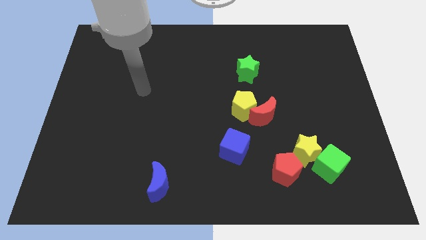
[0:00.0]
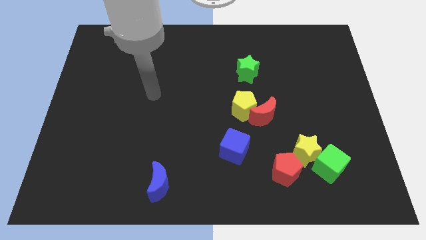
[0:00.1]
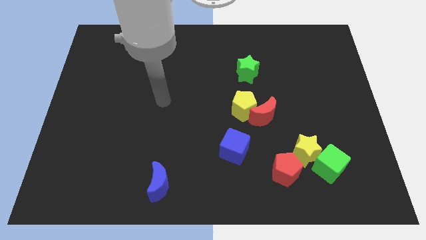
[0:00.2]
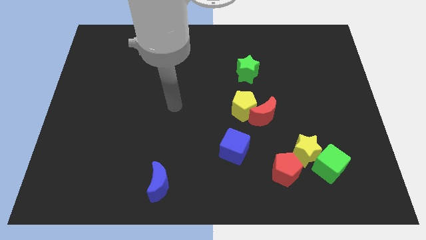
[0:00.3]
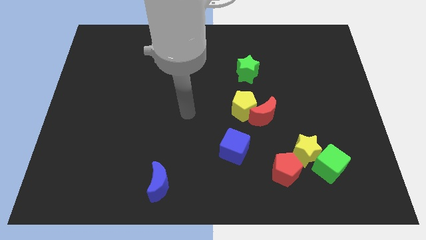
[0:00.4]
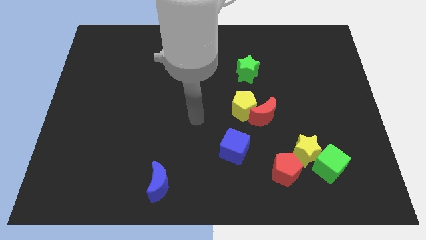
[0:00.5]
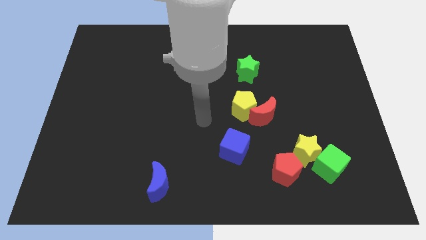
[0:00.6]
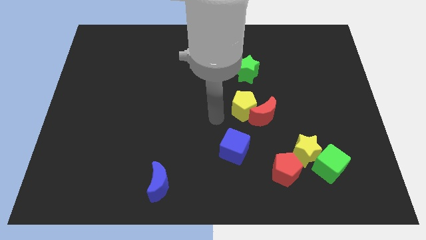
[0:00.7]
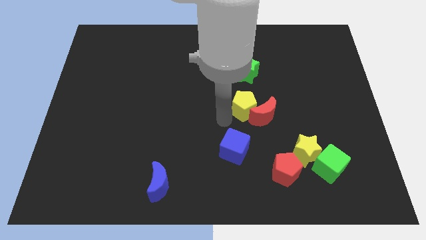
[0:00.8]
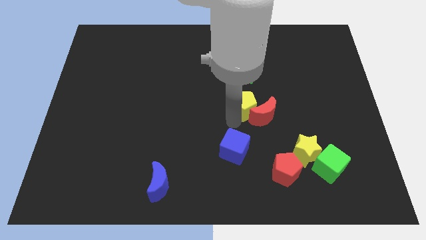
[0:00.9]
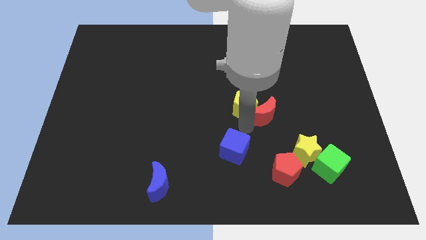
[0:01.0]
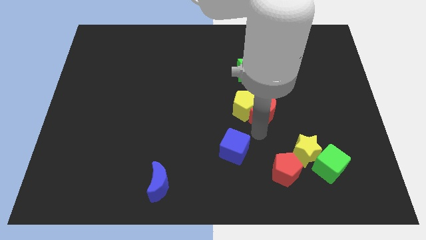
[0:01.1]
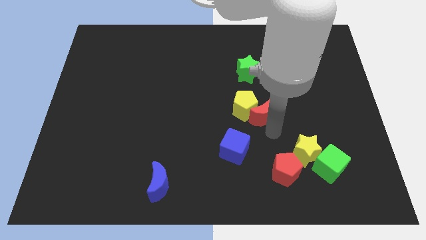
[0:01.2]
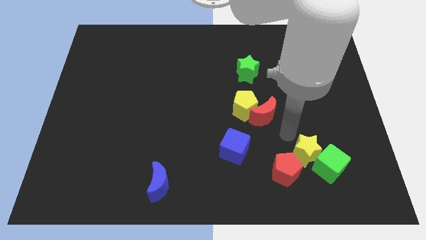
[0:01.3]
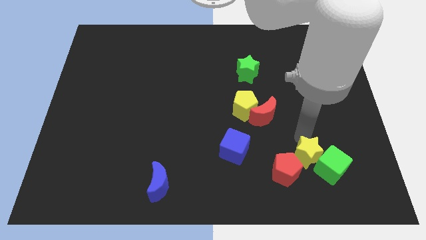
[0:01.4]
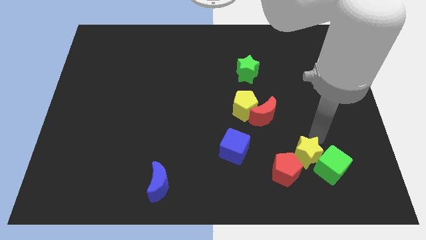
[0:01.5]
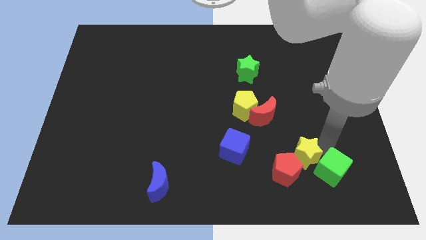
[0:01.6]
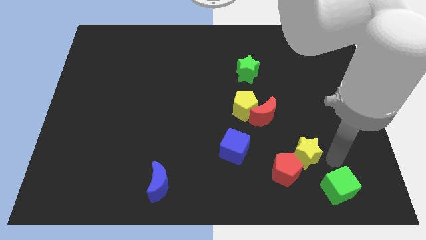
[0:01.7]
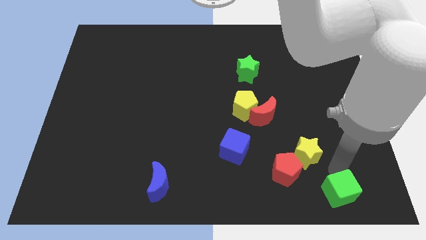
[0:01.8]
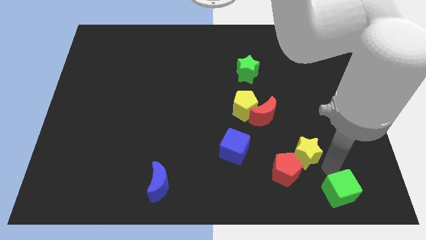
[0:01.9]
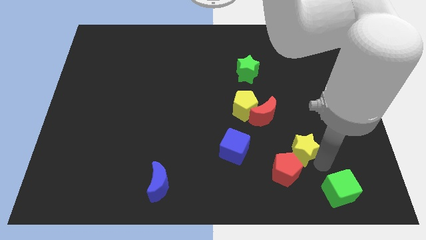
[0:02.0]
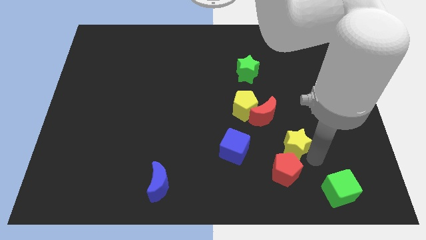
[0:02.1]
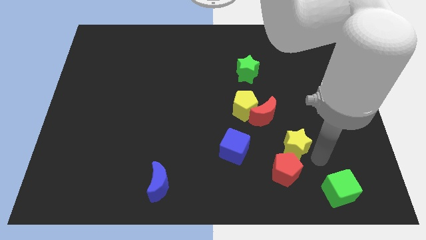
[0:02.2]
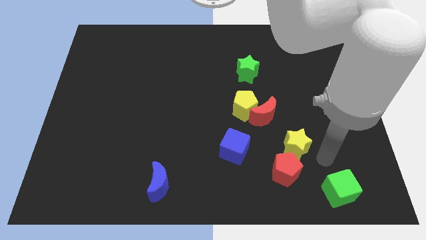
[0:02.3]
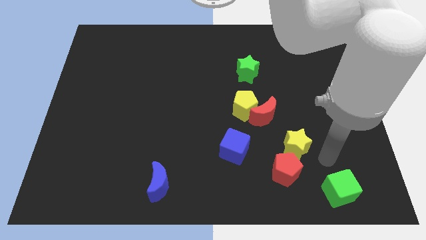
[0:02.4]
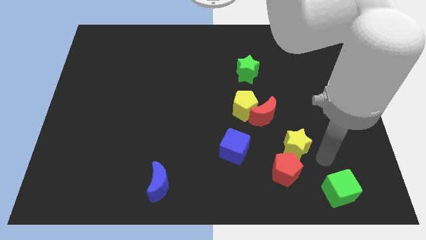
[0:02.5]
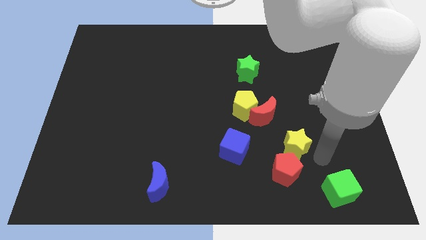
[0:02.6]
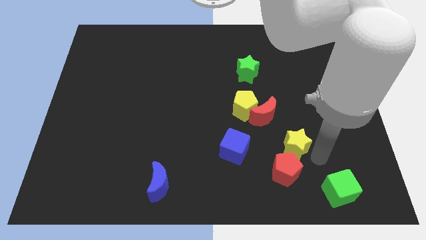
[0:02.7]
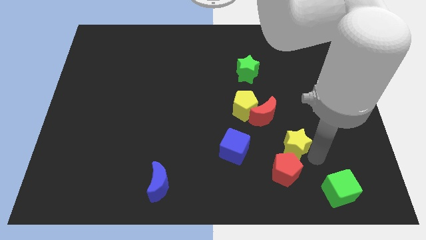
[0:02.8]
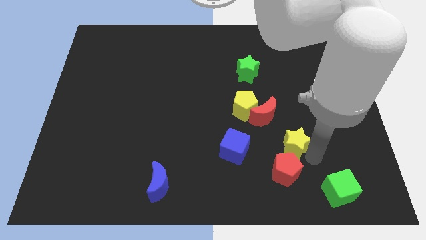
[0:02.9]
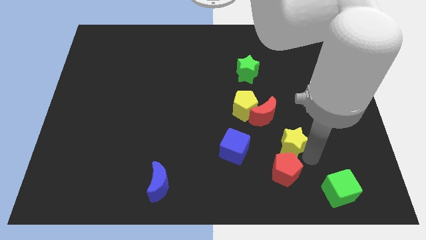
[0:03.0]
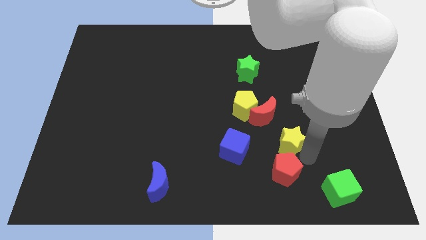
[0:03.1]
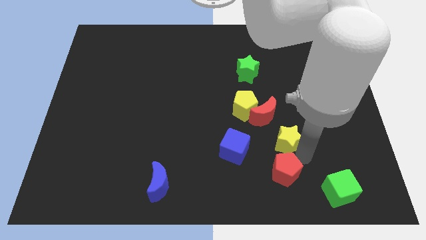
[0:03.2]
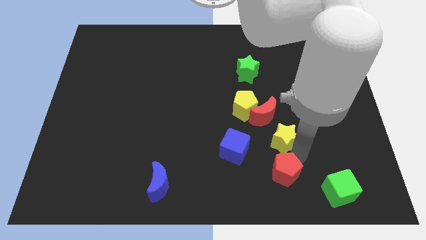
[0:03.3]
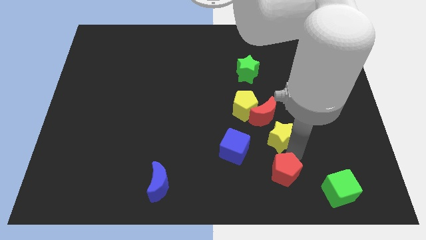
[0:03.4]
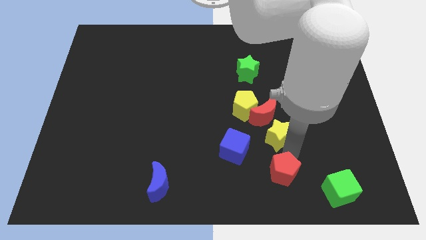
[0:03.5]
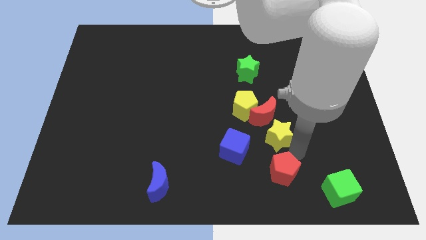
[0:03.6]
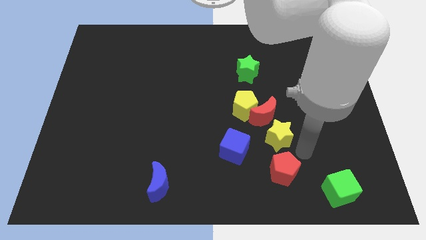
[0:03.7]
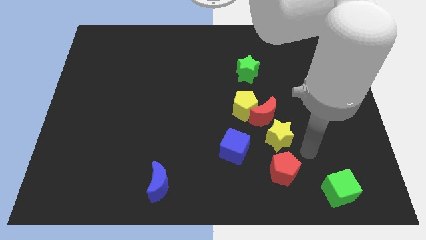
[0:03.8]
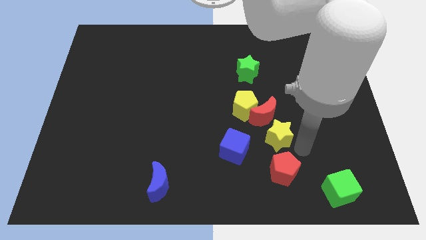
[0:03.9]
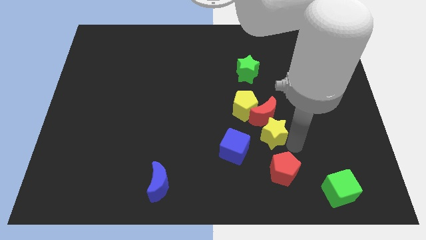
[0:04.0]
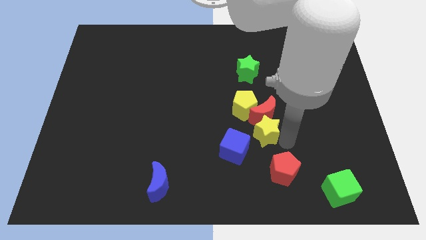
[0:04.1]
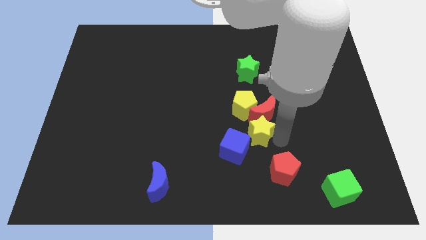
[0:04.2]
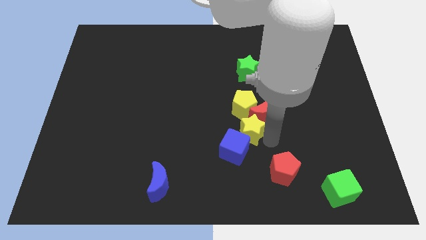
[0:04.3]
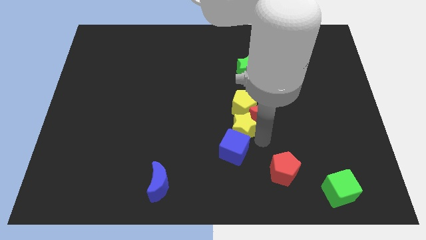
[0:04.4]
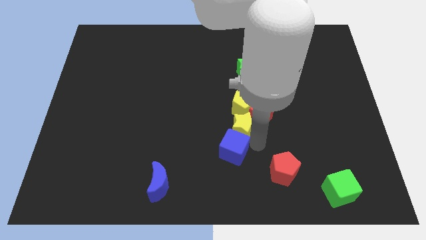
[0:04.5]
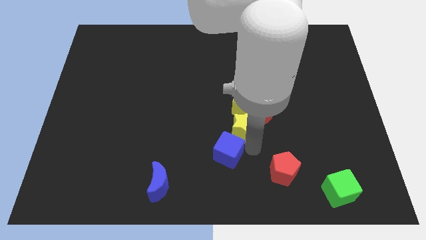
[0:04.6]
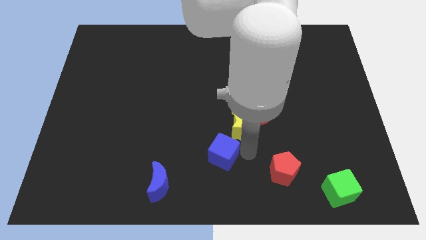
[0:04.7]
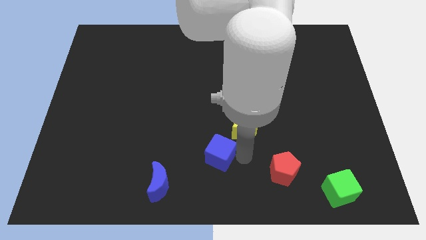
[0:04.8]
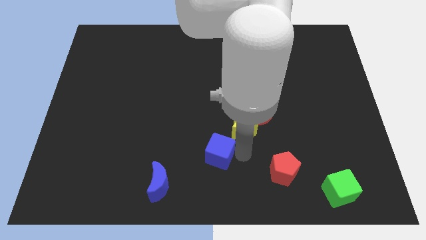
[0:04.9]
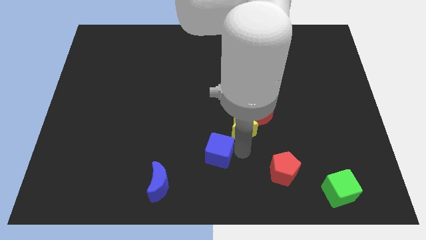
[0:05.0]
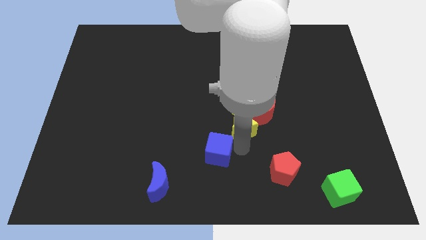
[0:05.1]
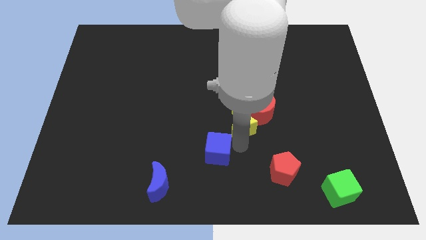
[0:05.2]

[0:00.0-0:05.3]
slide the yellow star towards the yellow pentagon

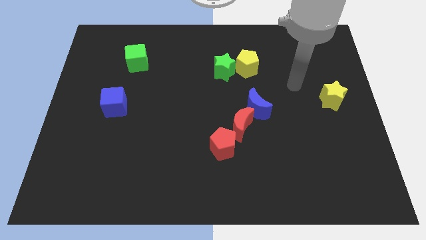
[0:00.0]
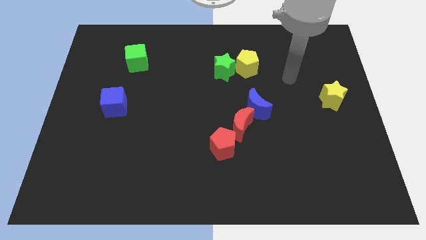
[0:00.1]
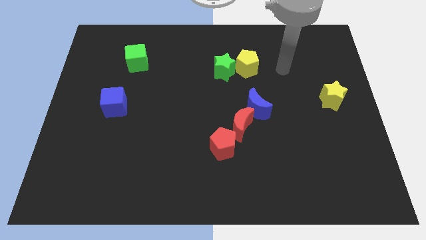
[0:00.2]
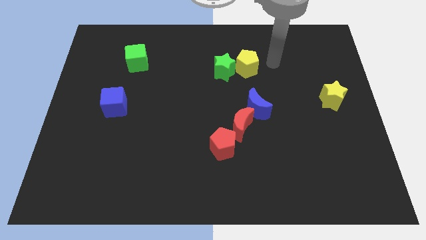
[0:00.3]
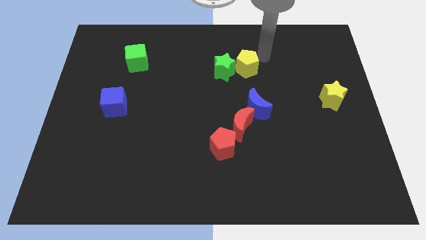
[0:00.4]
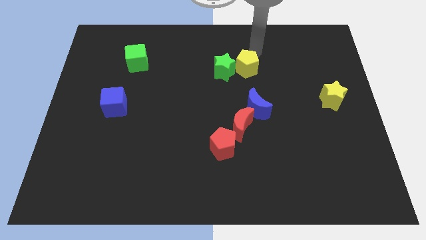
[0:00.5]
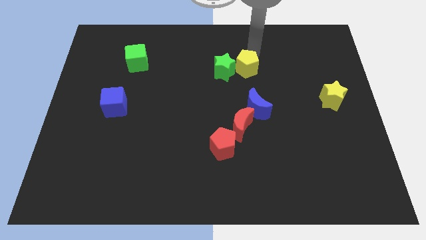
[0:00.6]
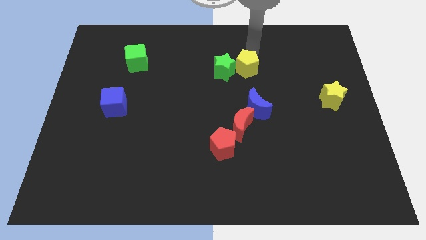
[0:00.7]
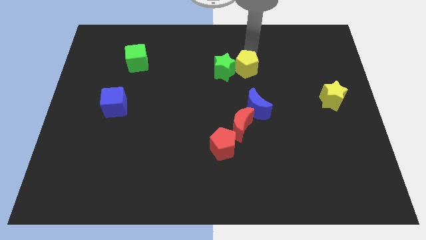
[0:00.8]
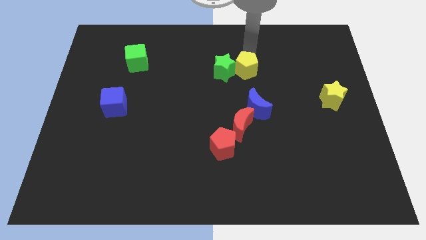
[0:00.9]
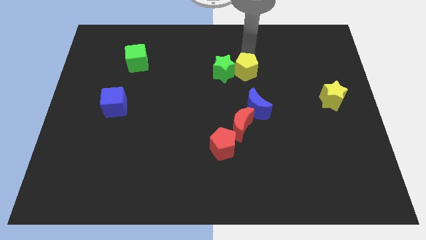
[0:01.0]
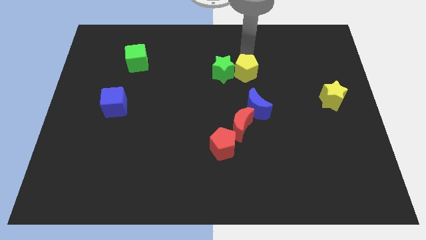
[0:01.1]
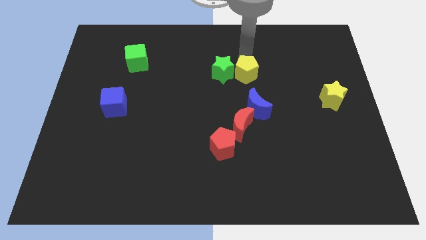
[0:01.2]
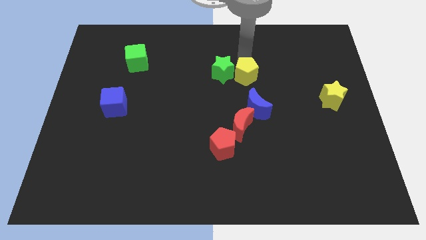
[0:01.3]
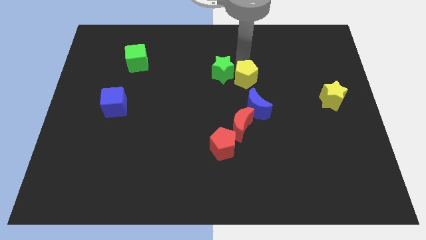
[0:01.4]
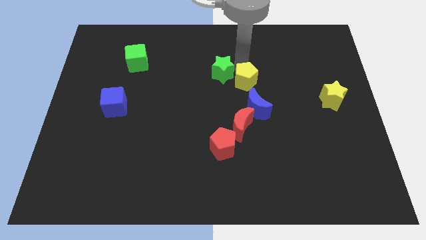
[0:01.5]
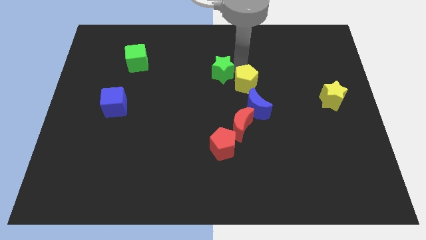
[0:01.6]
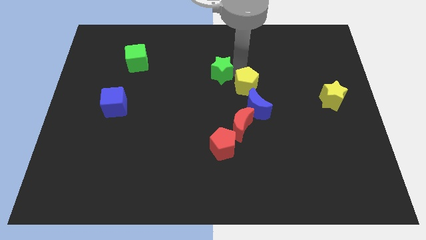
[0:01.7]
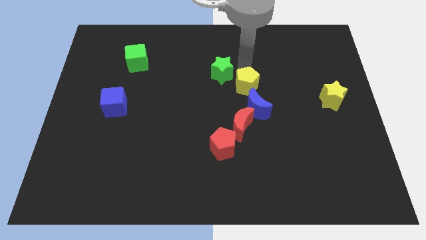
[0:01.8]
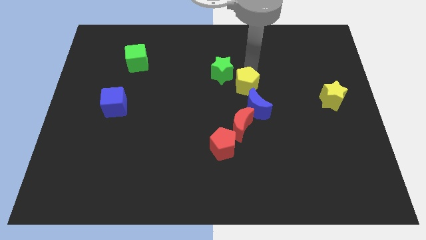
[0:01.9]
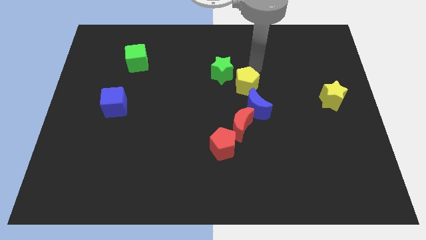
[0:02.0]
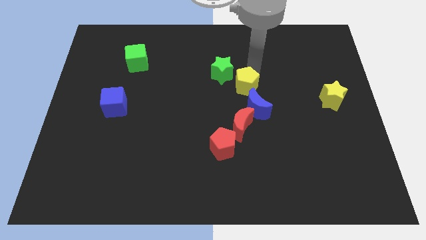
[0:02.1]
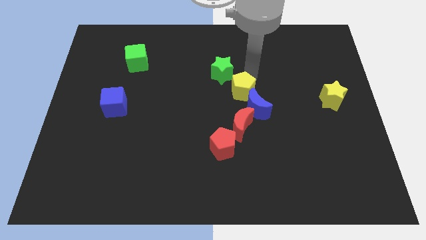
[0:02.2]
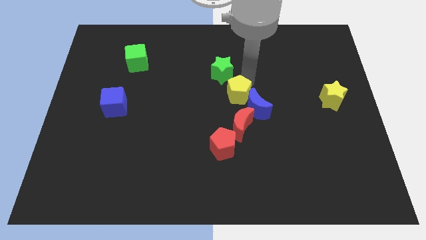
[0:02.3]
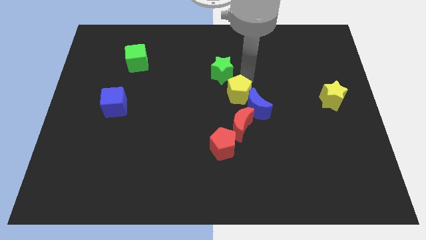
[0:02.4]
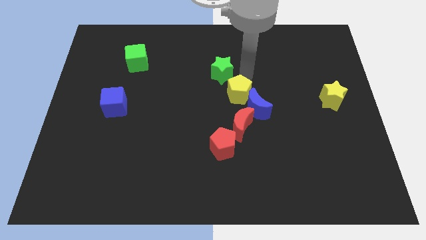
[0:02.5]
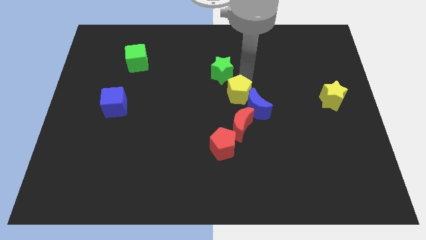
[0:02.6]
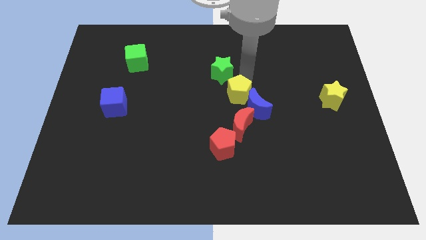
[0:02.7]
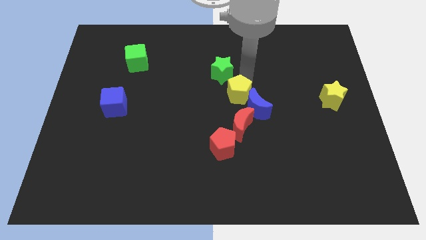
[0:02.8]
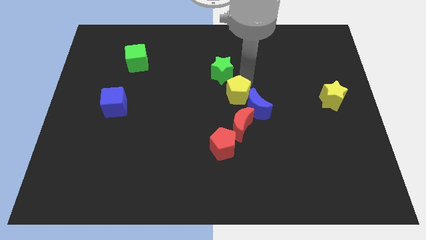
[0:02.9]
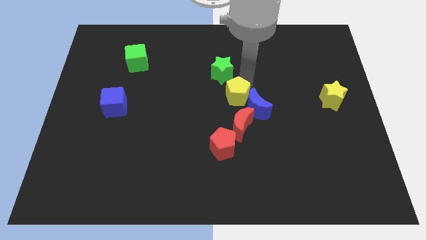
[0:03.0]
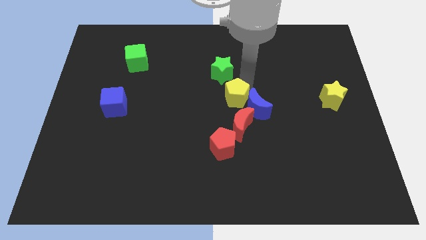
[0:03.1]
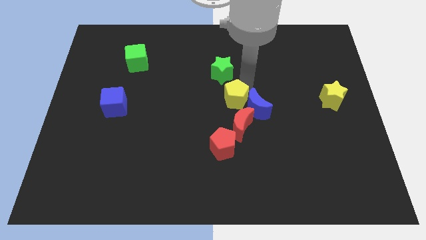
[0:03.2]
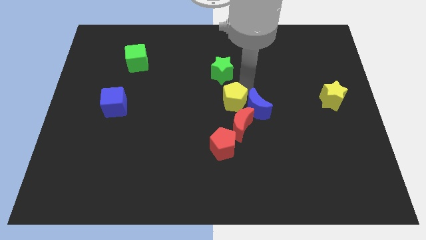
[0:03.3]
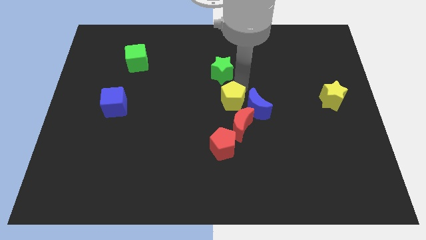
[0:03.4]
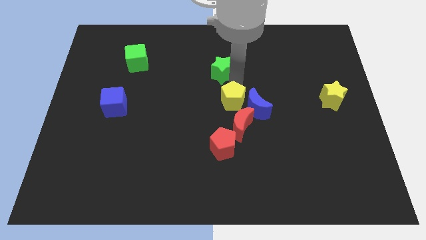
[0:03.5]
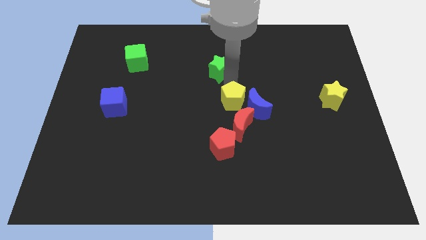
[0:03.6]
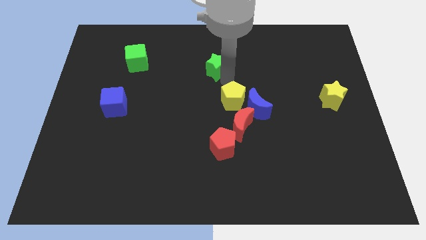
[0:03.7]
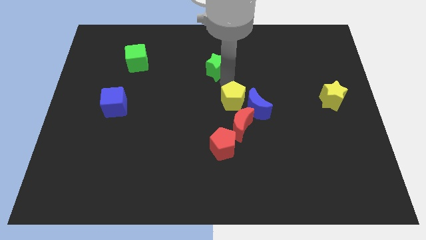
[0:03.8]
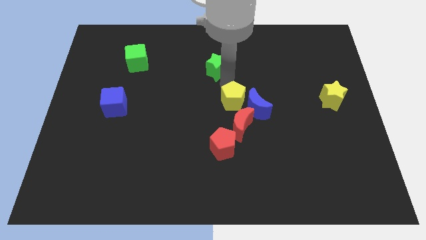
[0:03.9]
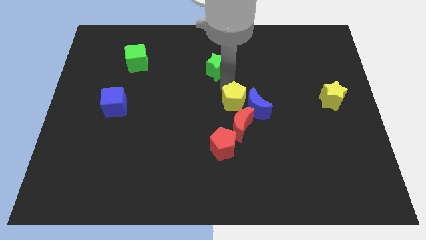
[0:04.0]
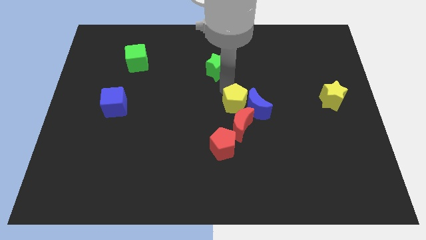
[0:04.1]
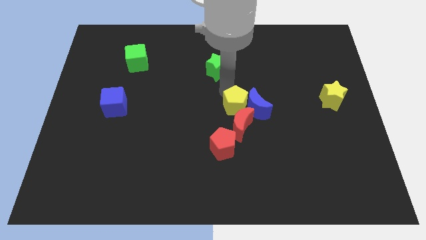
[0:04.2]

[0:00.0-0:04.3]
push the yellow pentagon towards the red moon
